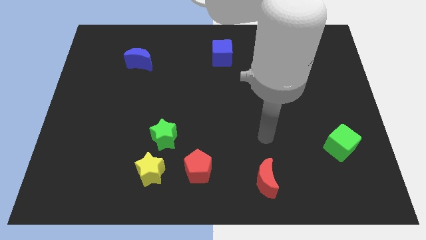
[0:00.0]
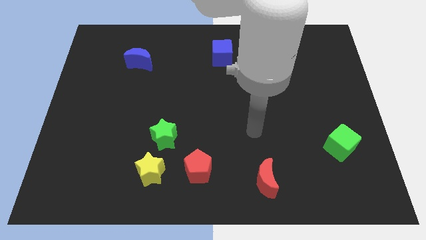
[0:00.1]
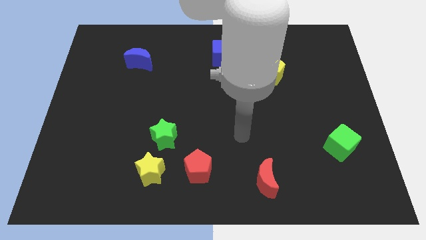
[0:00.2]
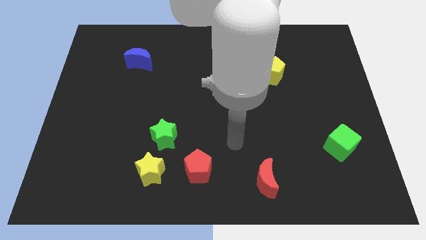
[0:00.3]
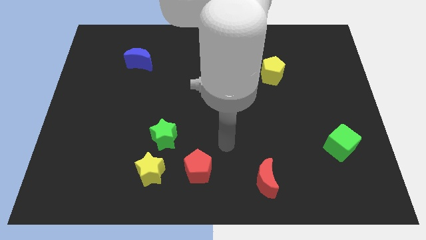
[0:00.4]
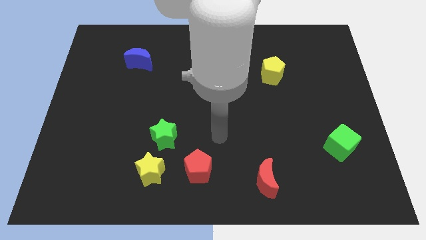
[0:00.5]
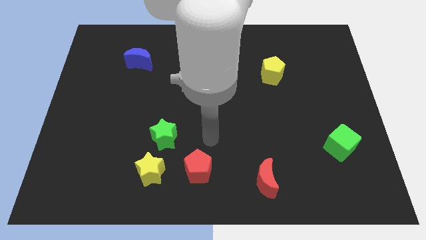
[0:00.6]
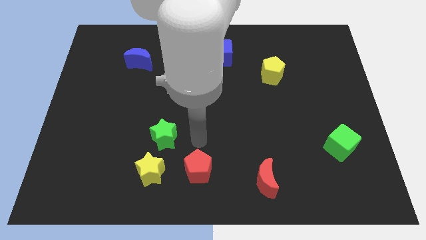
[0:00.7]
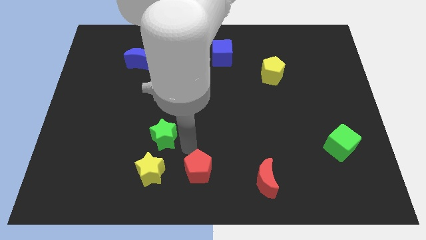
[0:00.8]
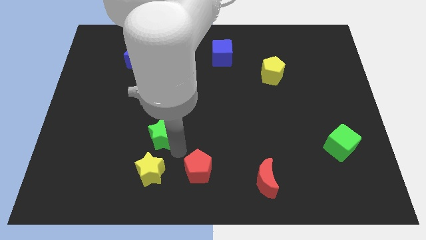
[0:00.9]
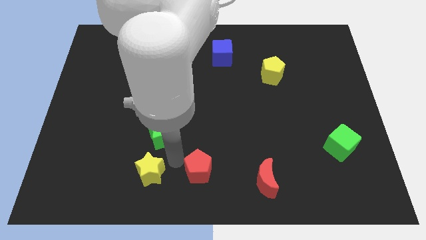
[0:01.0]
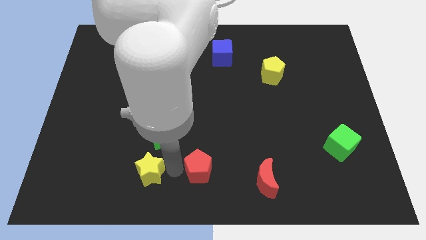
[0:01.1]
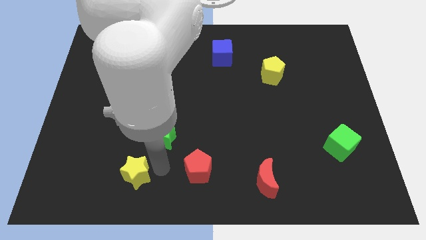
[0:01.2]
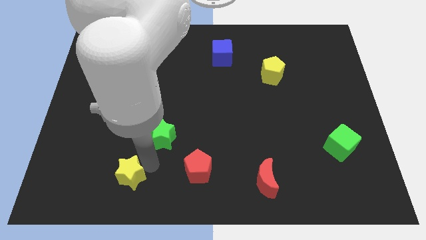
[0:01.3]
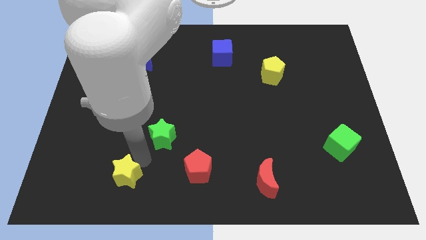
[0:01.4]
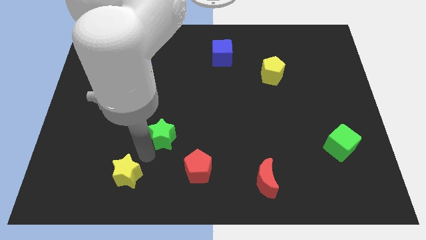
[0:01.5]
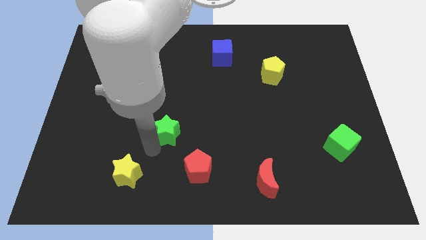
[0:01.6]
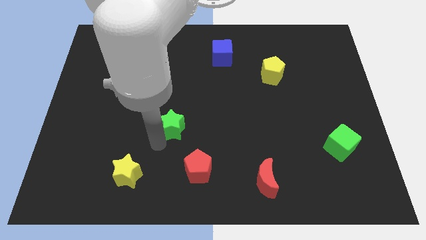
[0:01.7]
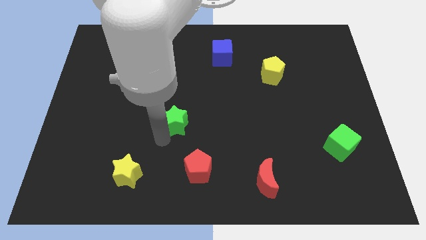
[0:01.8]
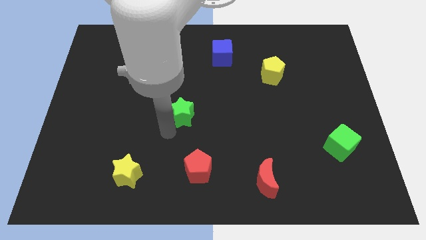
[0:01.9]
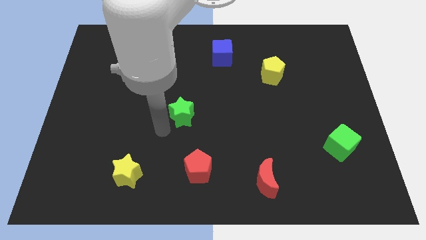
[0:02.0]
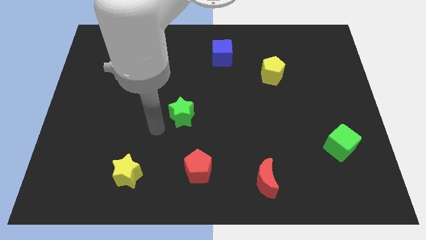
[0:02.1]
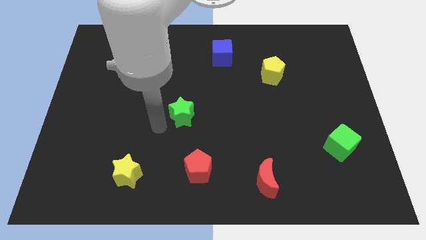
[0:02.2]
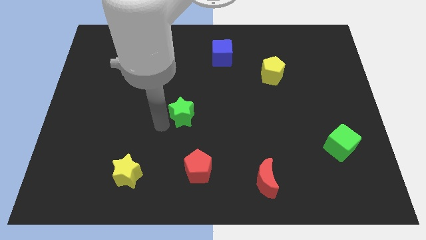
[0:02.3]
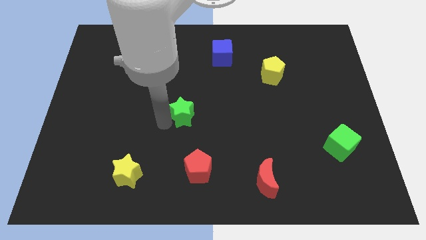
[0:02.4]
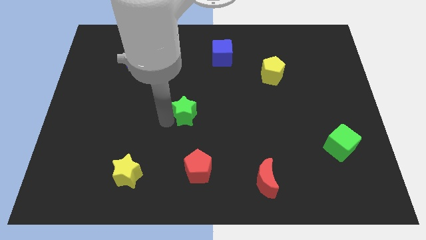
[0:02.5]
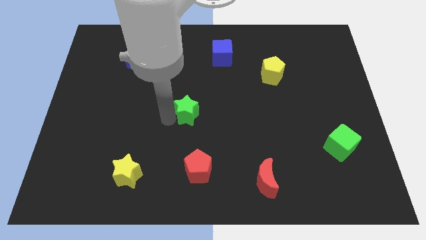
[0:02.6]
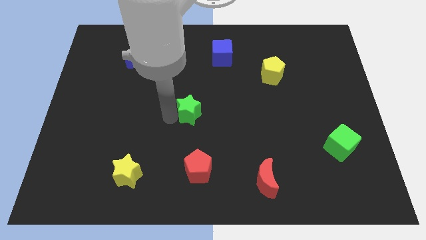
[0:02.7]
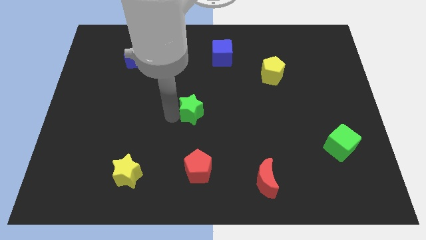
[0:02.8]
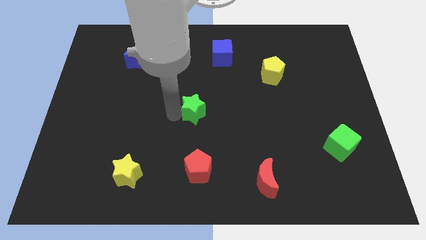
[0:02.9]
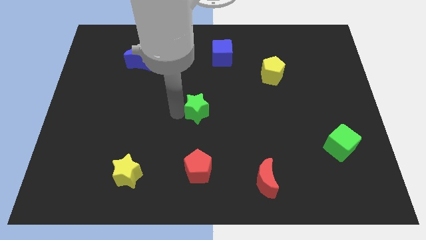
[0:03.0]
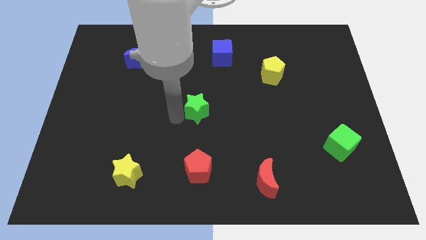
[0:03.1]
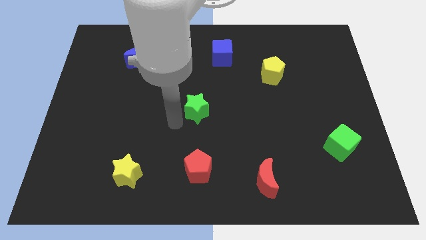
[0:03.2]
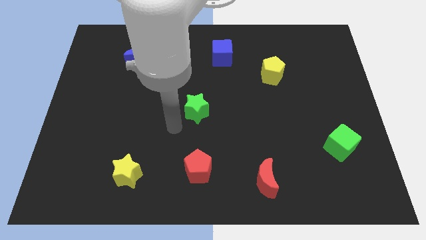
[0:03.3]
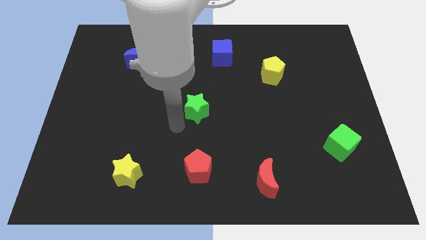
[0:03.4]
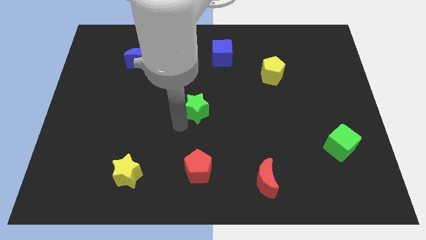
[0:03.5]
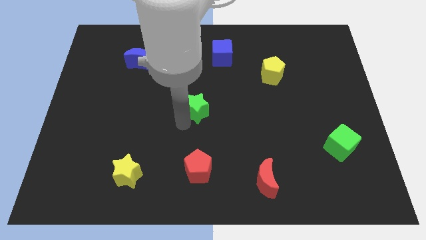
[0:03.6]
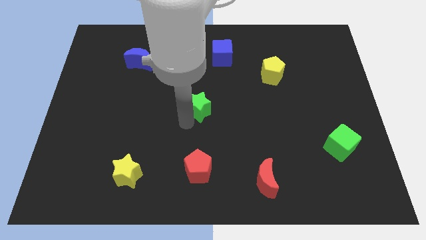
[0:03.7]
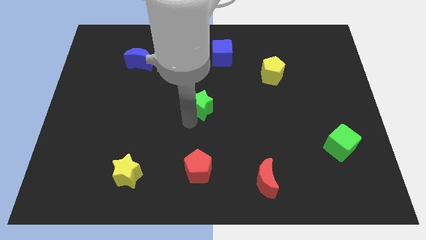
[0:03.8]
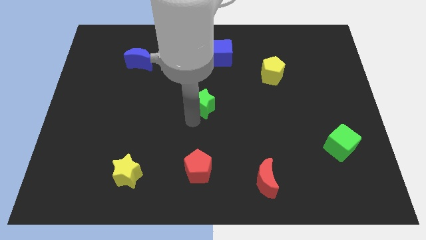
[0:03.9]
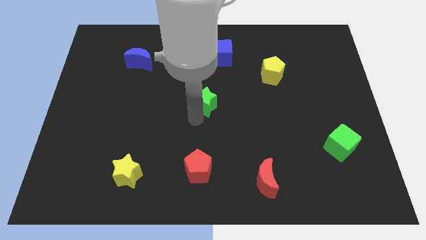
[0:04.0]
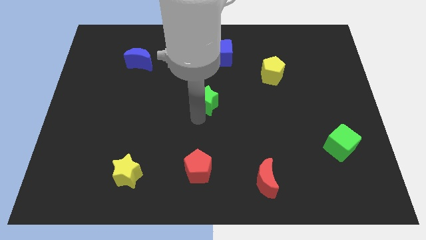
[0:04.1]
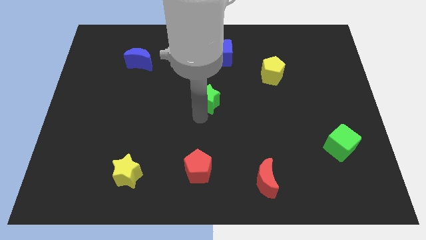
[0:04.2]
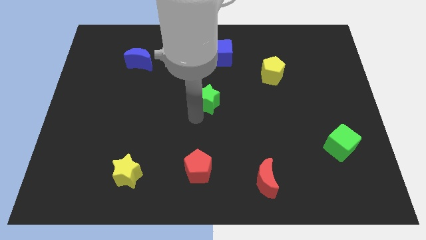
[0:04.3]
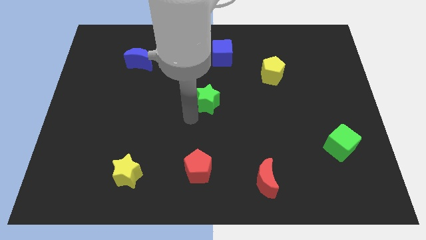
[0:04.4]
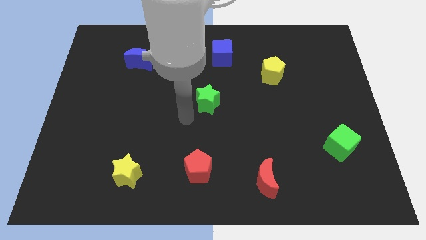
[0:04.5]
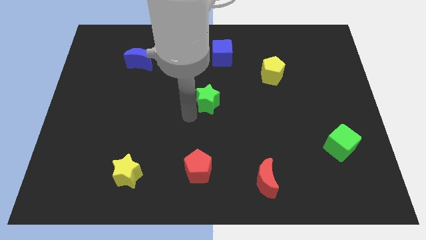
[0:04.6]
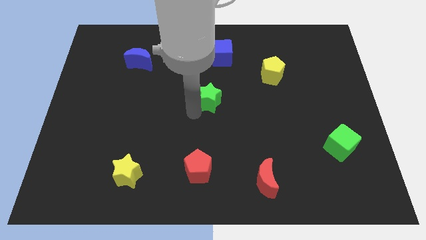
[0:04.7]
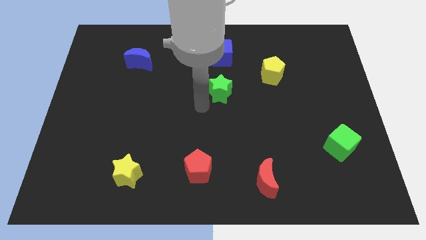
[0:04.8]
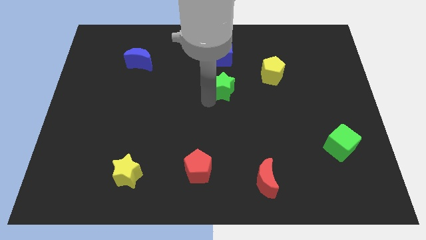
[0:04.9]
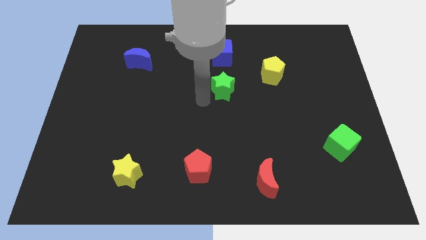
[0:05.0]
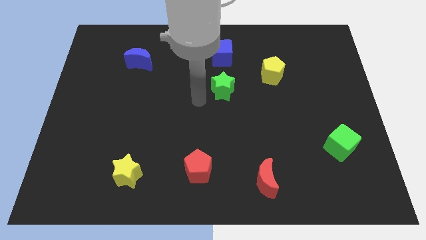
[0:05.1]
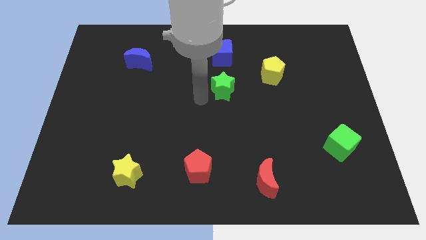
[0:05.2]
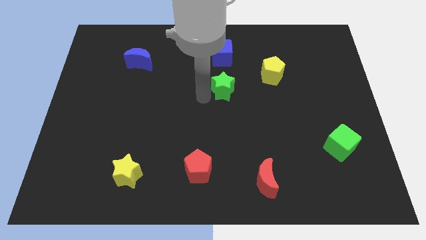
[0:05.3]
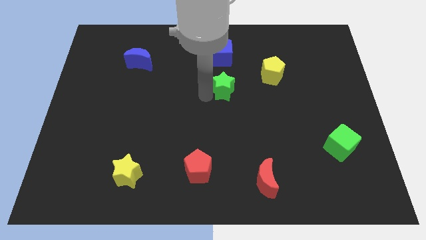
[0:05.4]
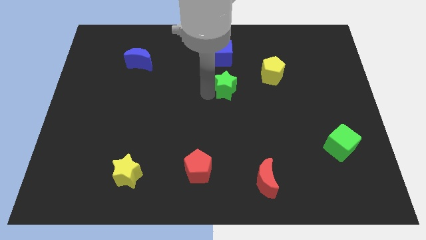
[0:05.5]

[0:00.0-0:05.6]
push the green star upwards and right diagonally

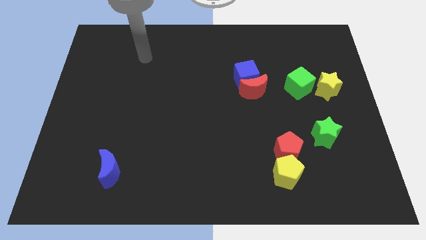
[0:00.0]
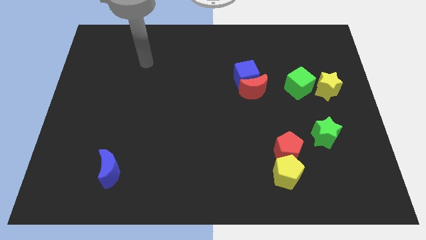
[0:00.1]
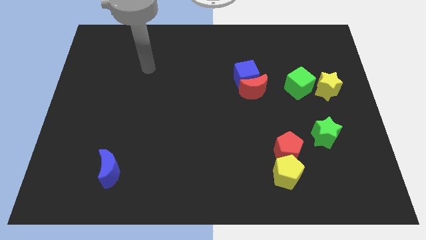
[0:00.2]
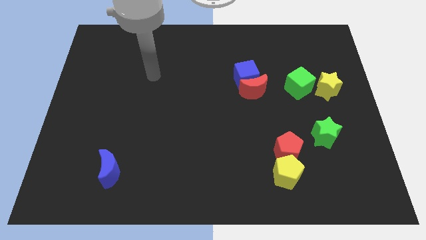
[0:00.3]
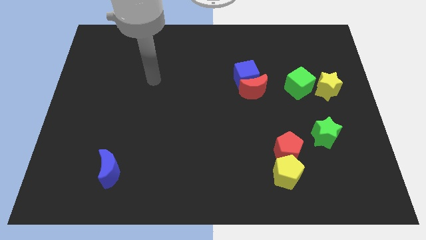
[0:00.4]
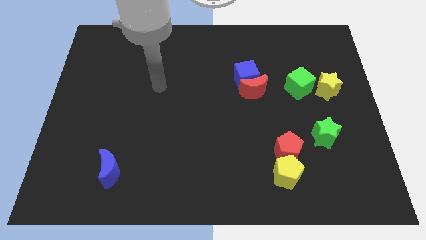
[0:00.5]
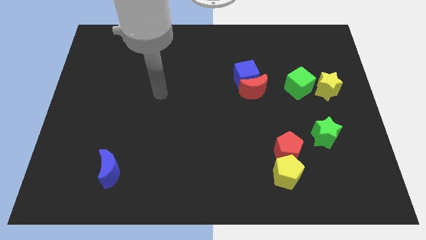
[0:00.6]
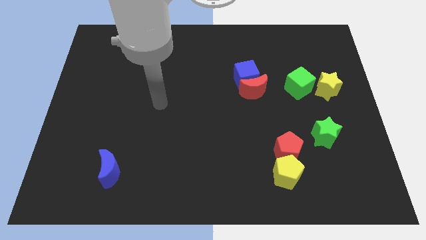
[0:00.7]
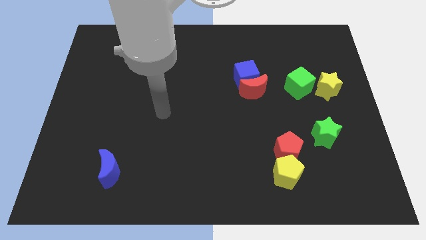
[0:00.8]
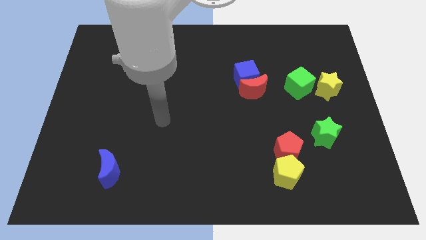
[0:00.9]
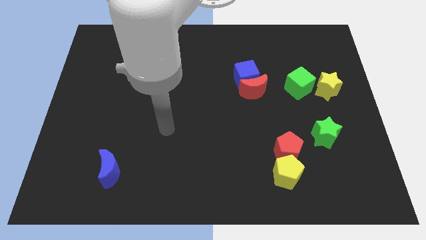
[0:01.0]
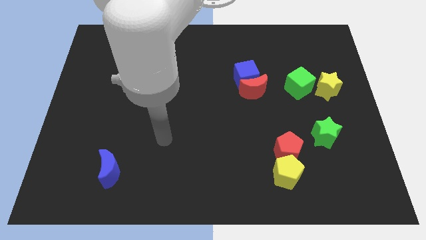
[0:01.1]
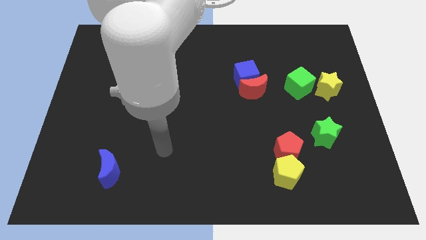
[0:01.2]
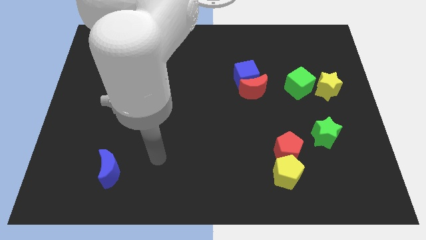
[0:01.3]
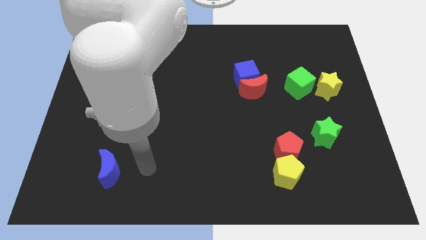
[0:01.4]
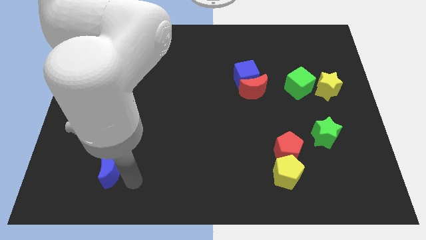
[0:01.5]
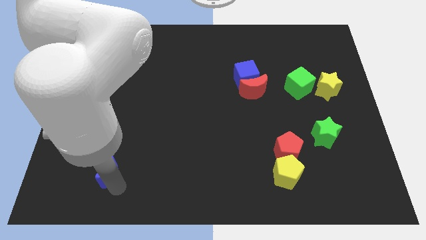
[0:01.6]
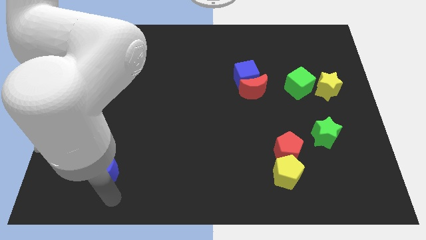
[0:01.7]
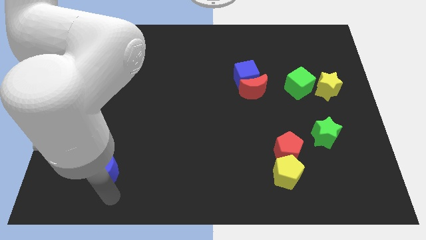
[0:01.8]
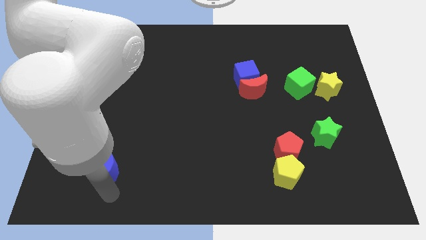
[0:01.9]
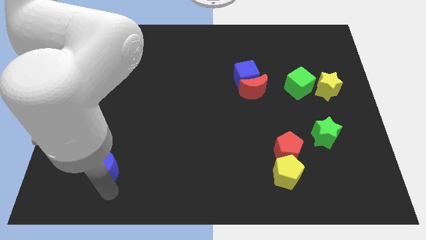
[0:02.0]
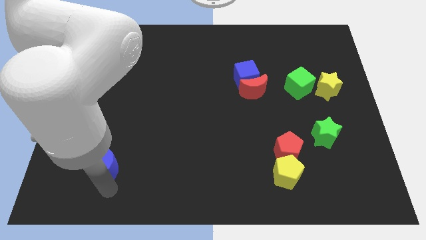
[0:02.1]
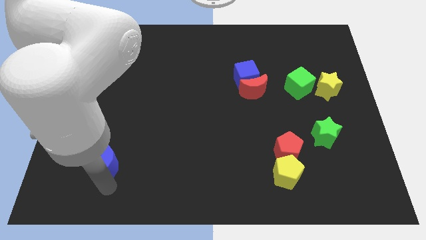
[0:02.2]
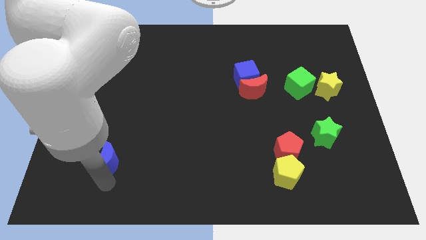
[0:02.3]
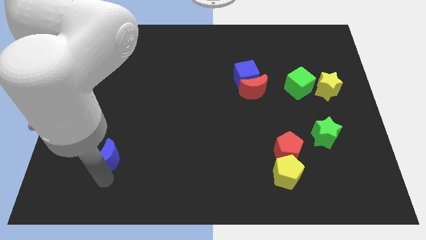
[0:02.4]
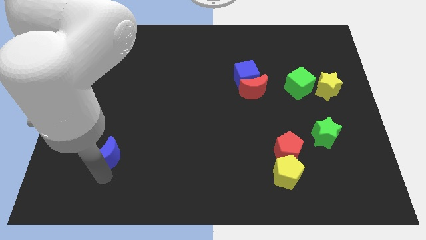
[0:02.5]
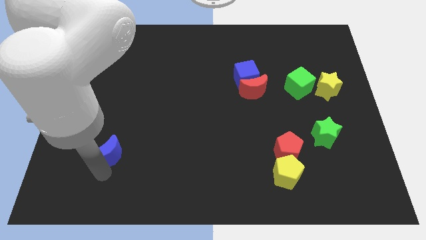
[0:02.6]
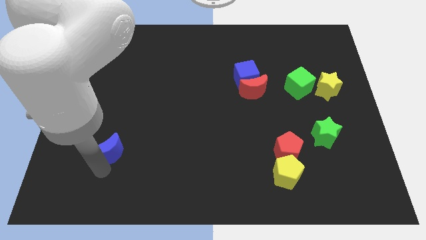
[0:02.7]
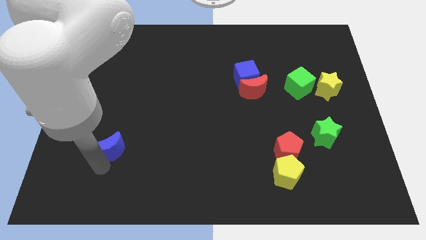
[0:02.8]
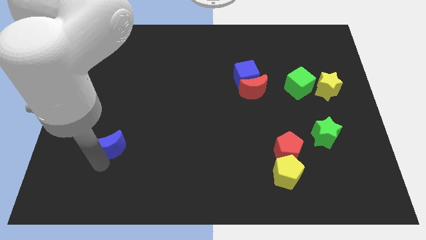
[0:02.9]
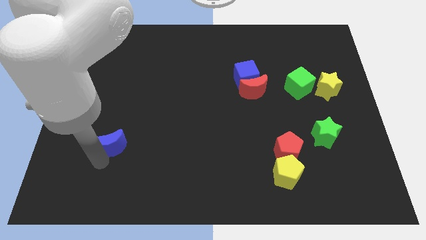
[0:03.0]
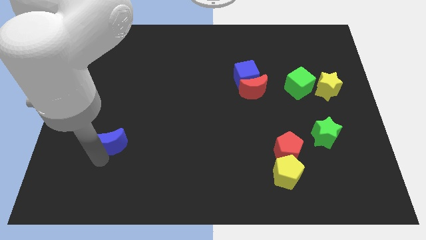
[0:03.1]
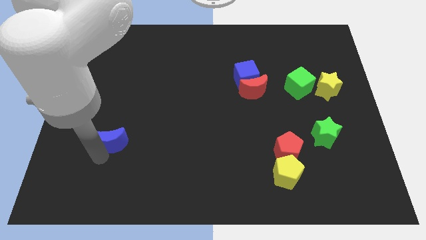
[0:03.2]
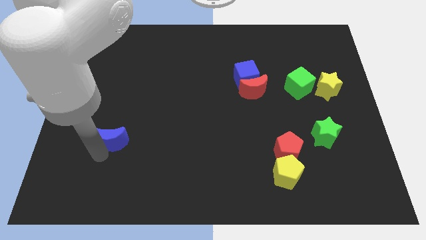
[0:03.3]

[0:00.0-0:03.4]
slightly move the blue moon upwards
